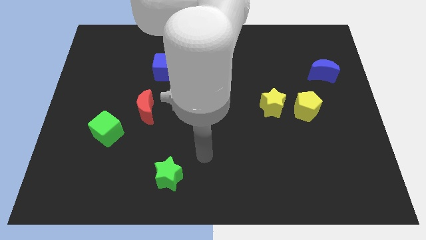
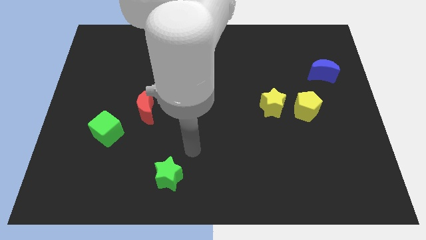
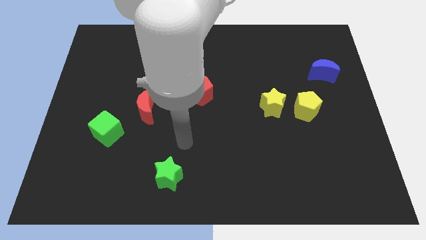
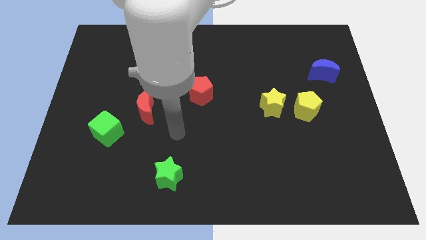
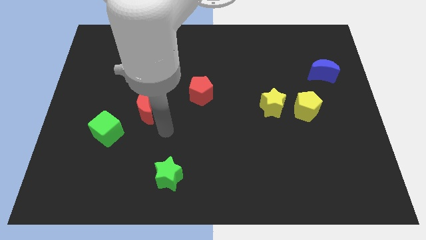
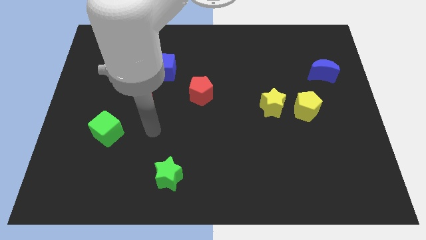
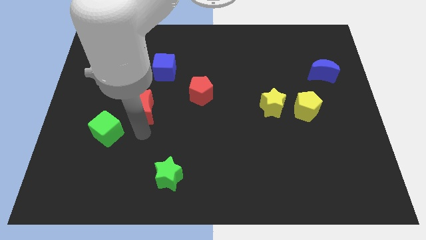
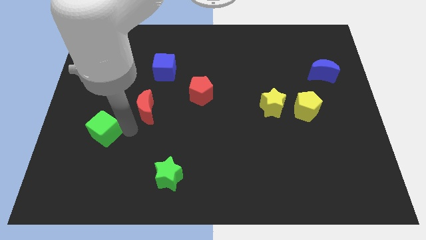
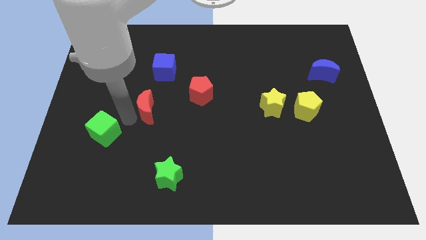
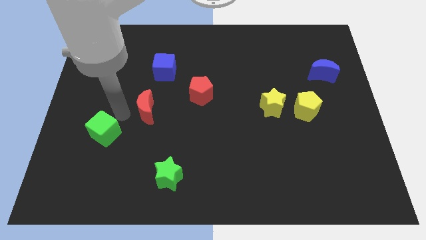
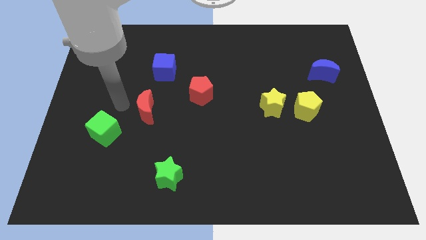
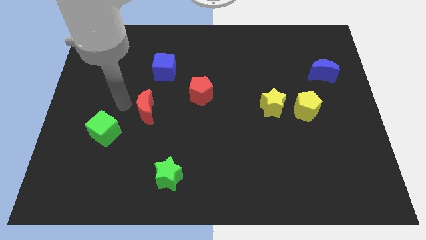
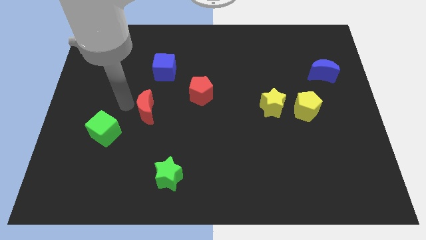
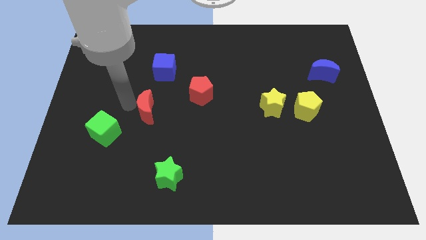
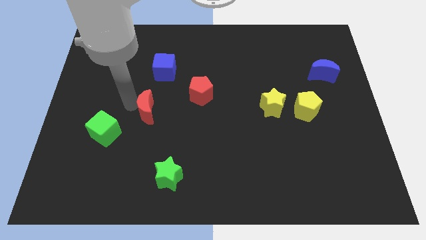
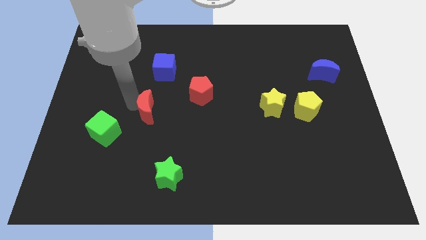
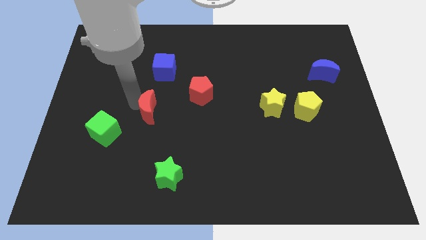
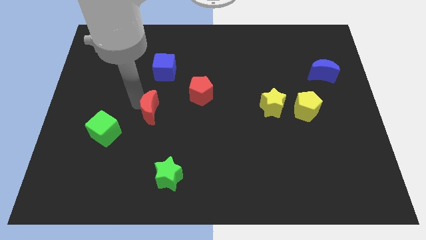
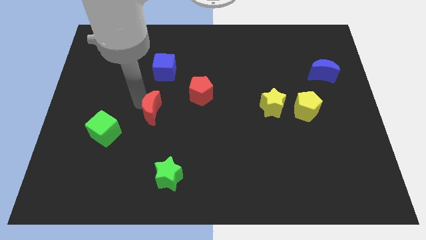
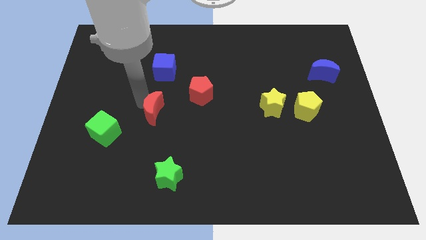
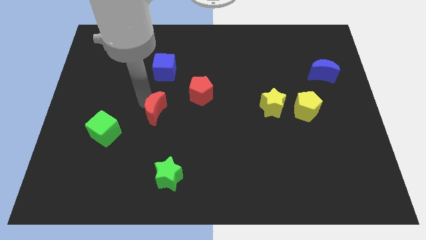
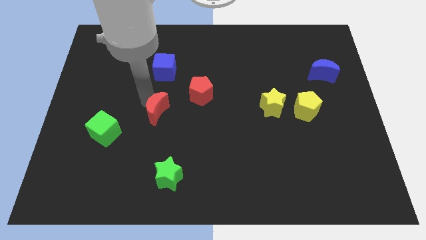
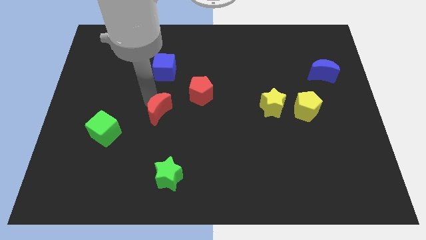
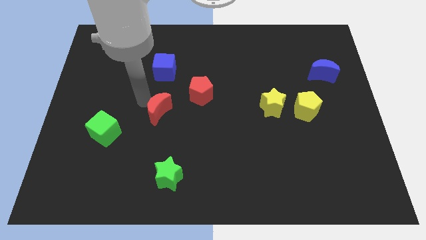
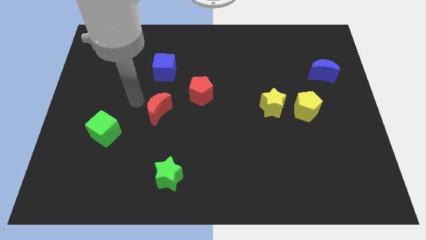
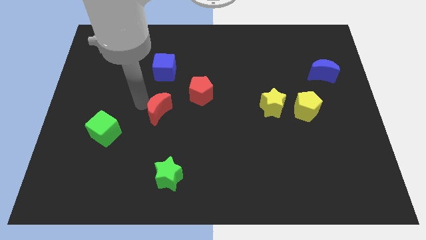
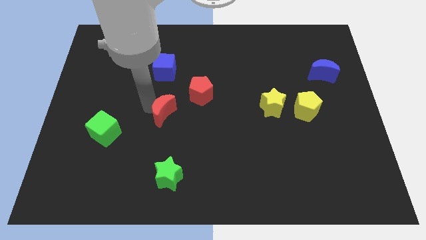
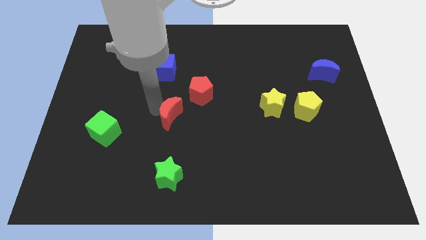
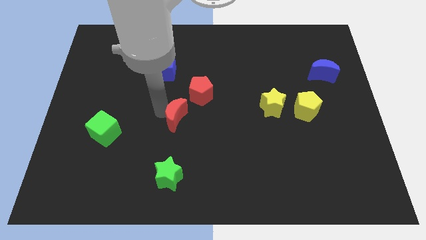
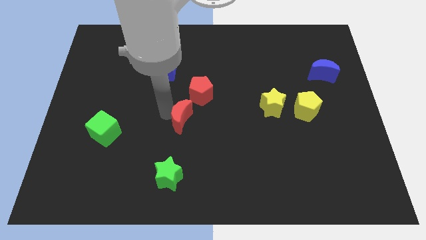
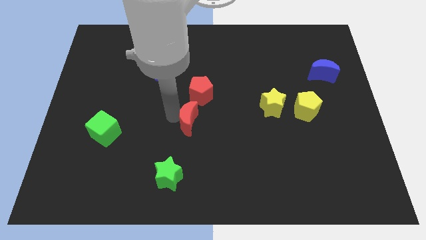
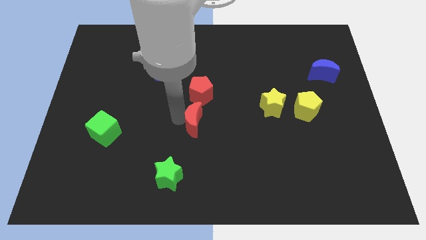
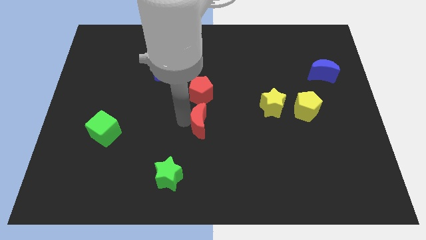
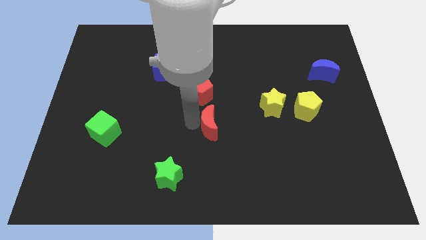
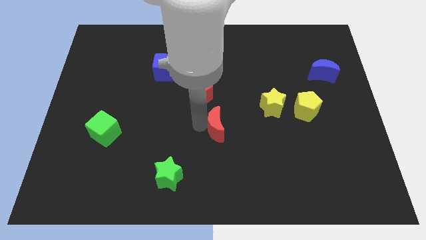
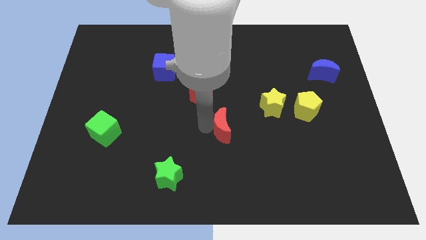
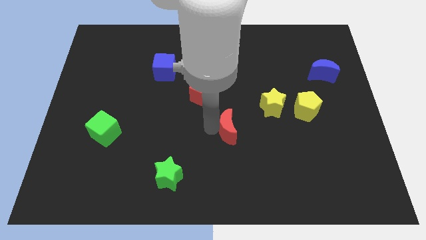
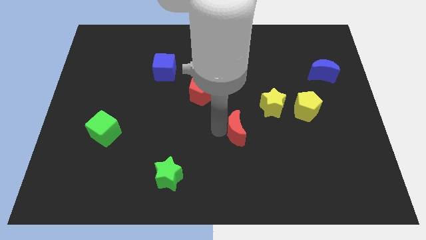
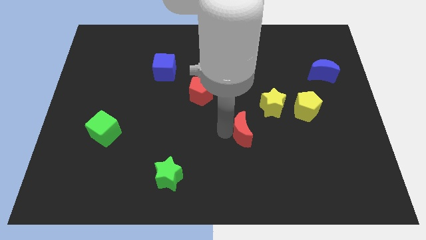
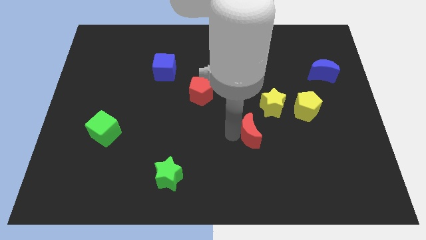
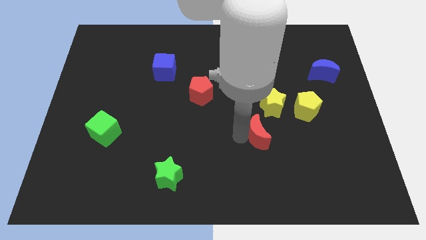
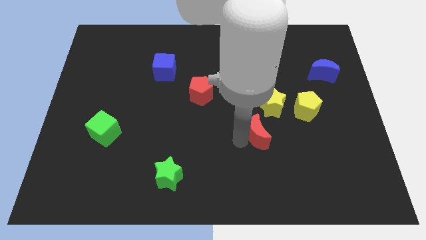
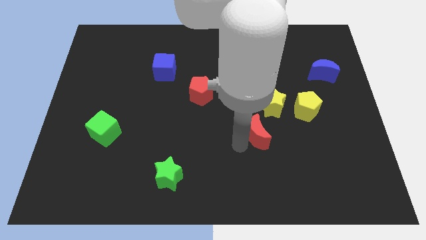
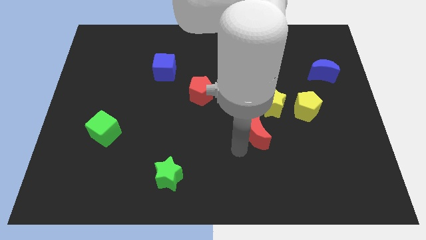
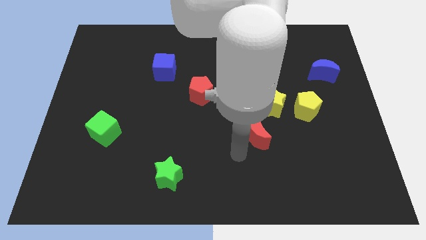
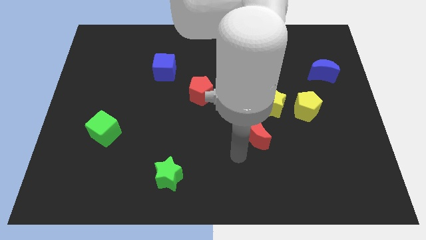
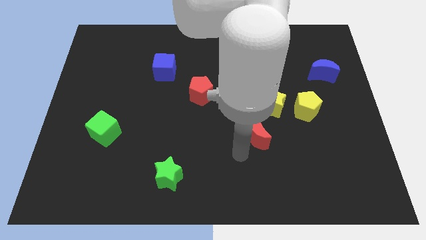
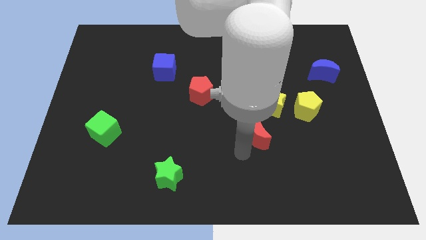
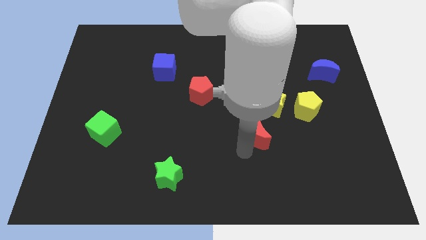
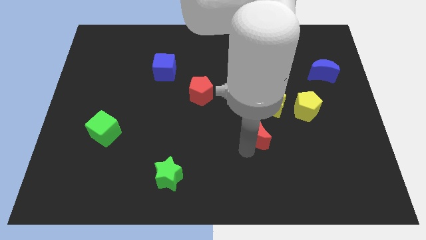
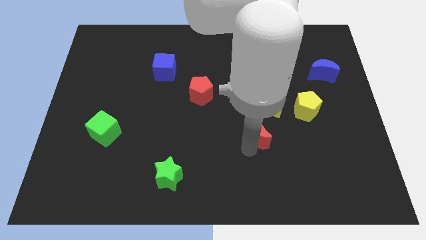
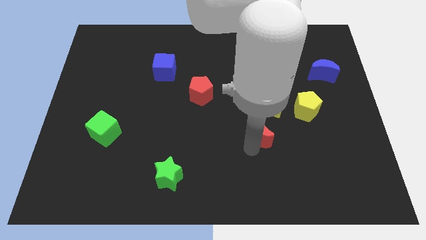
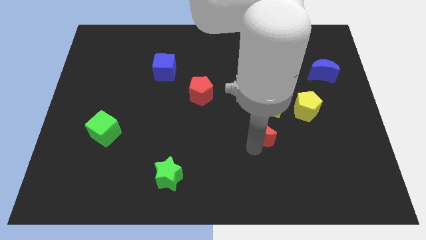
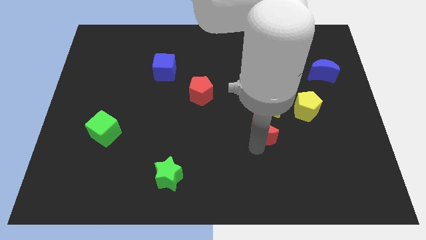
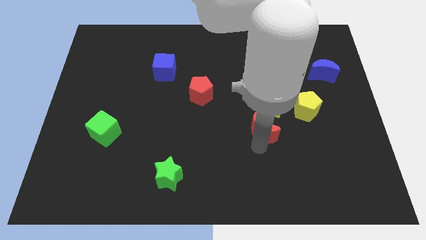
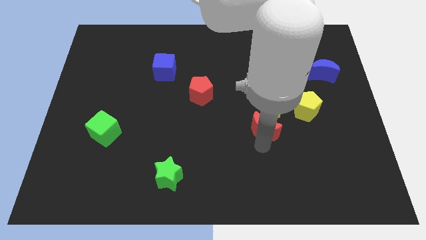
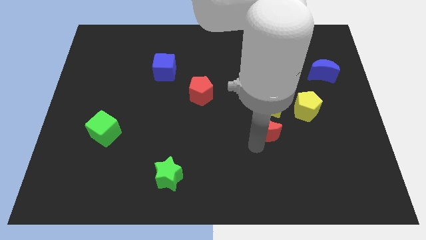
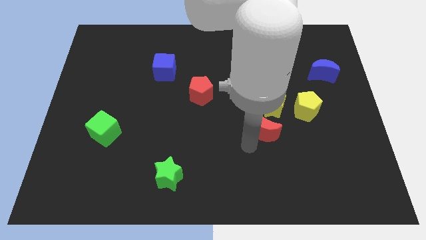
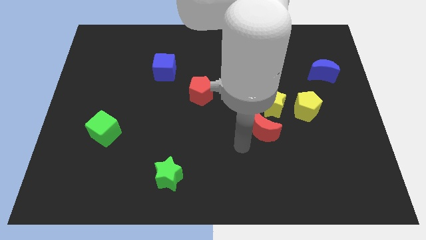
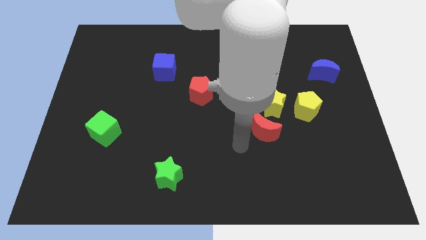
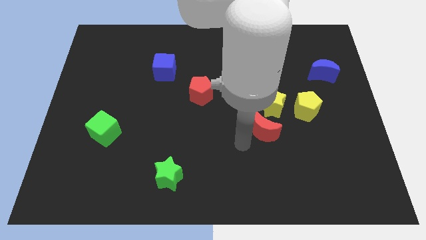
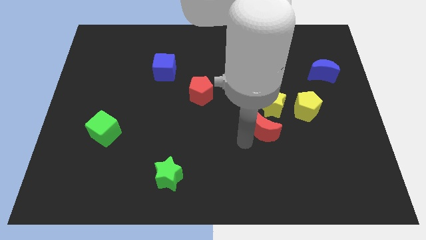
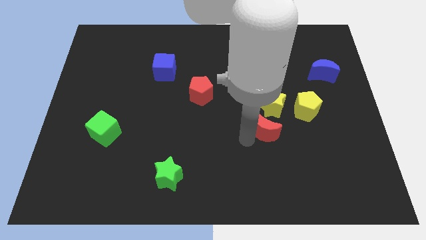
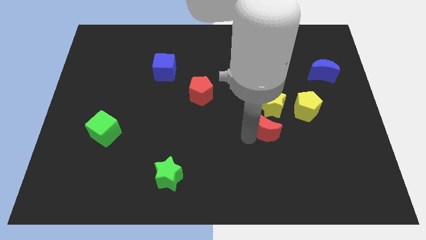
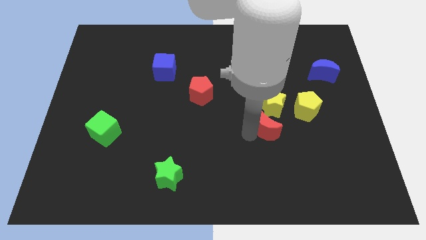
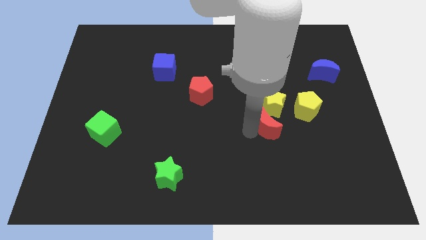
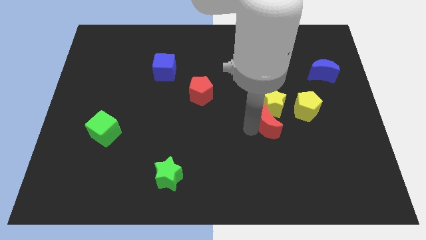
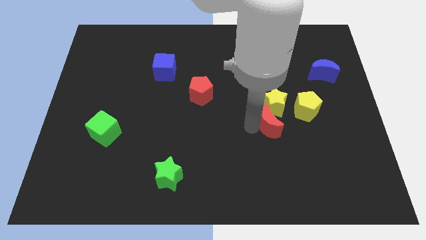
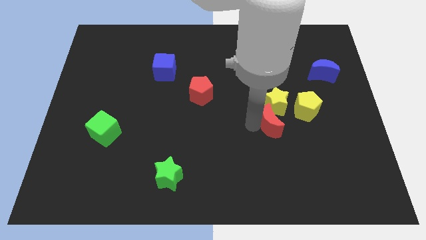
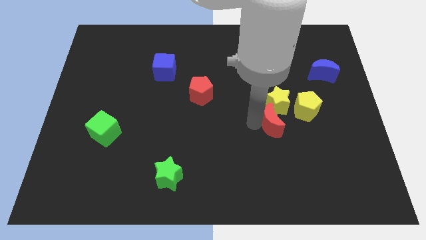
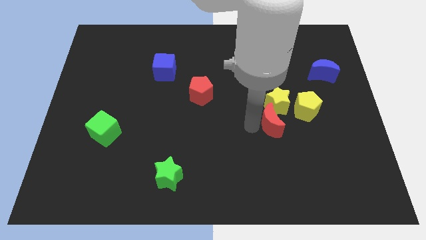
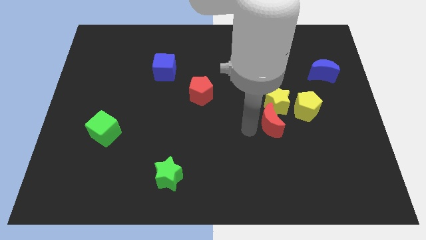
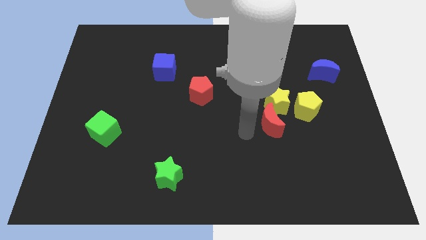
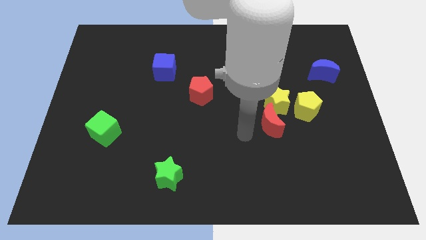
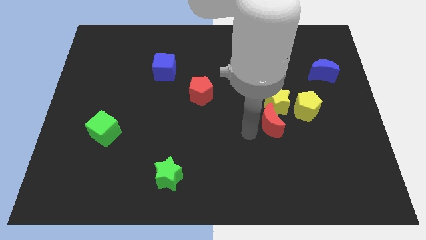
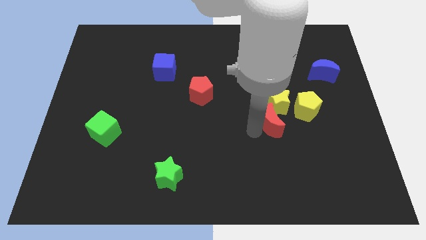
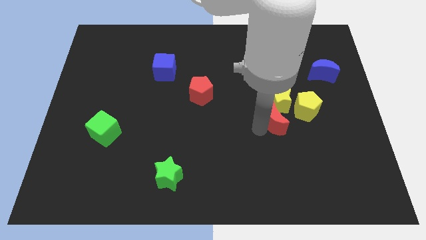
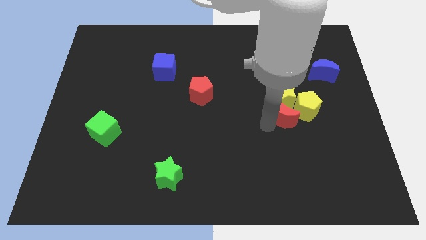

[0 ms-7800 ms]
put the red moon close to the yellow pentagon
